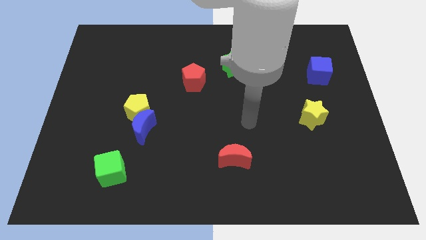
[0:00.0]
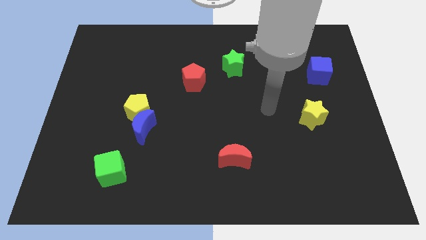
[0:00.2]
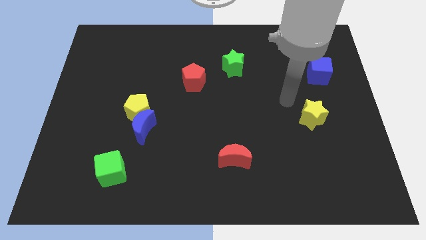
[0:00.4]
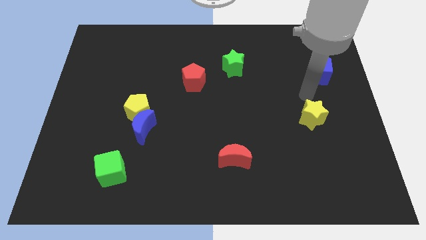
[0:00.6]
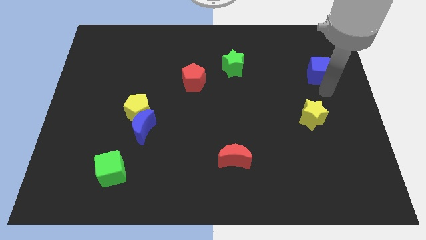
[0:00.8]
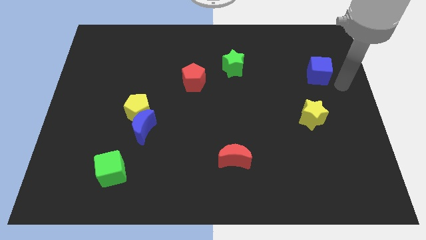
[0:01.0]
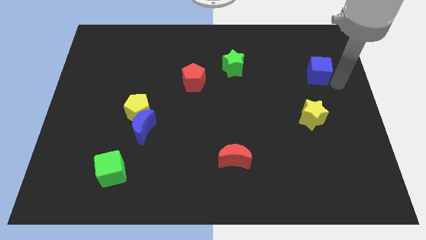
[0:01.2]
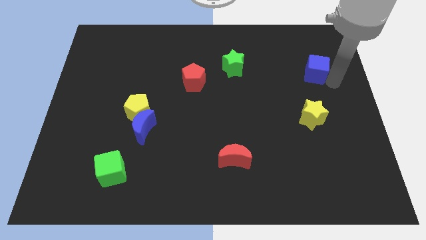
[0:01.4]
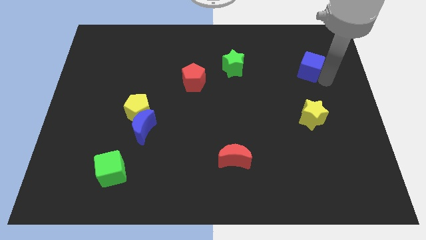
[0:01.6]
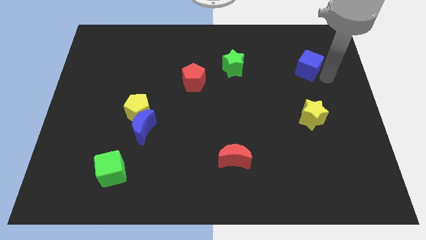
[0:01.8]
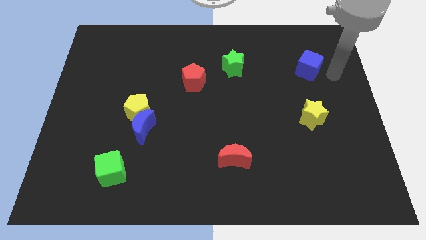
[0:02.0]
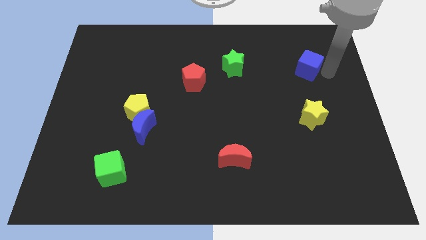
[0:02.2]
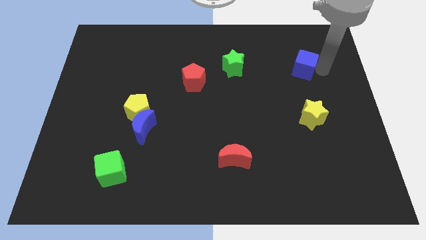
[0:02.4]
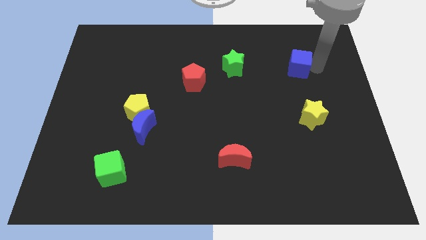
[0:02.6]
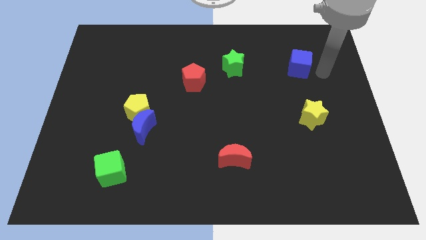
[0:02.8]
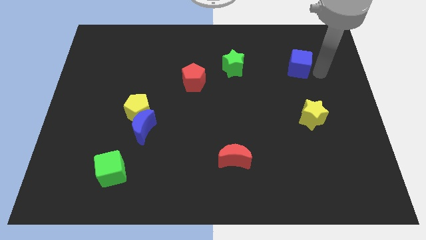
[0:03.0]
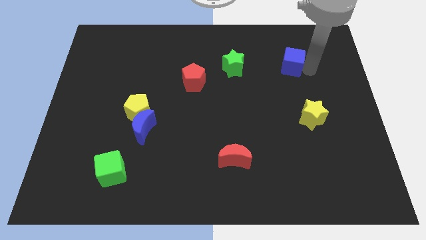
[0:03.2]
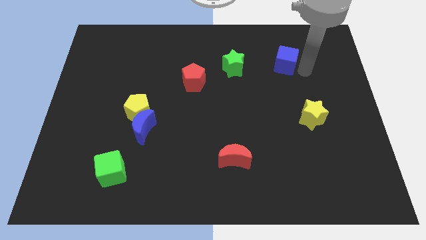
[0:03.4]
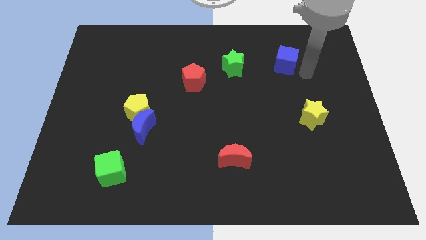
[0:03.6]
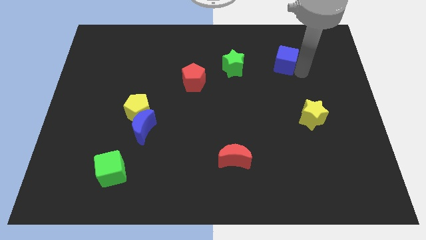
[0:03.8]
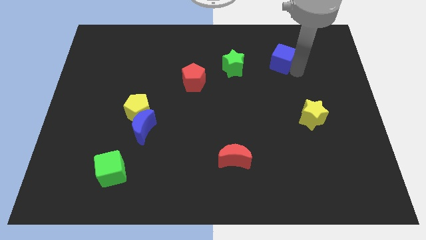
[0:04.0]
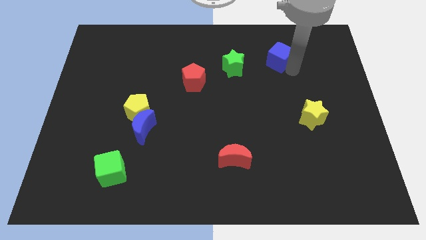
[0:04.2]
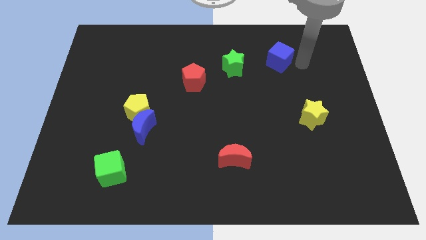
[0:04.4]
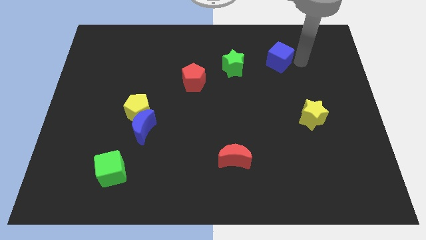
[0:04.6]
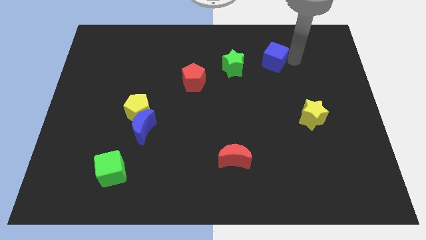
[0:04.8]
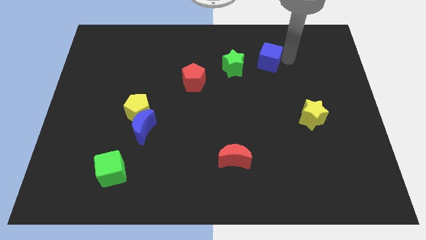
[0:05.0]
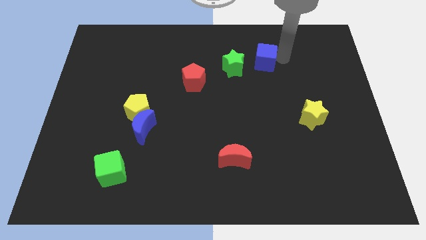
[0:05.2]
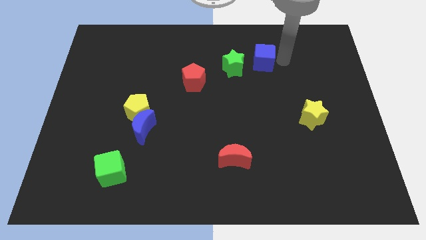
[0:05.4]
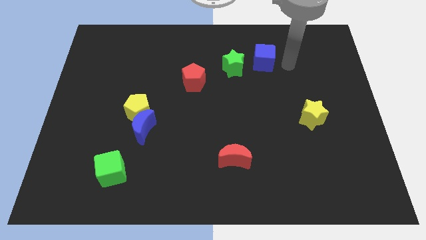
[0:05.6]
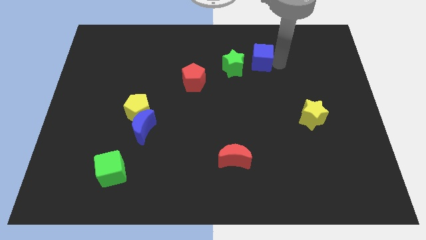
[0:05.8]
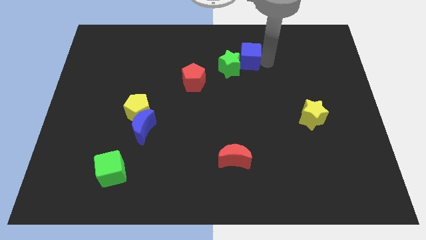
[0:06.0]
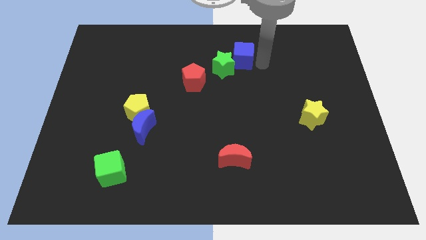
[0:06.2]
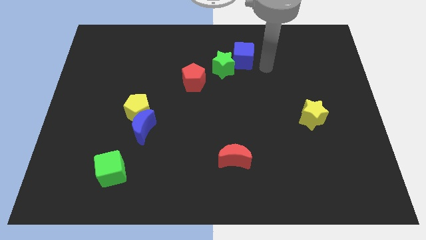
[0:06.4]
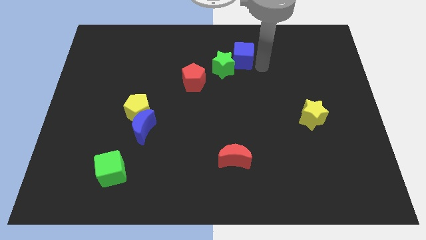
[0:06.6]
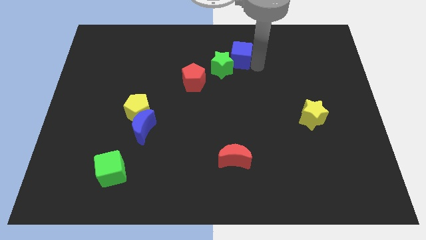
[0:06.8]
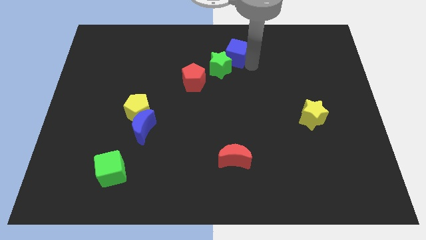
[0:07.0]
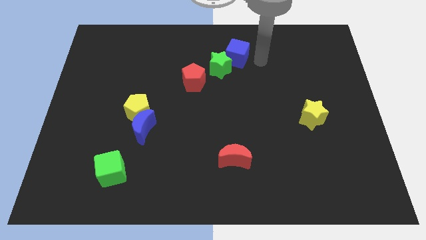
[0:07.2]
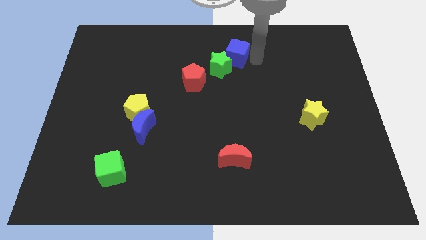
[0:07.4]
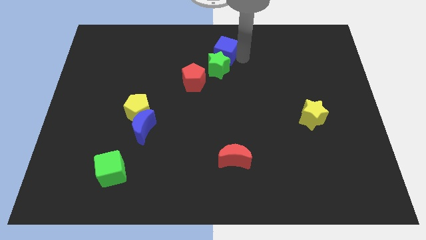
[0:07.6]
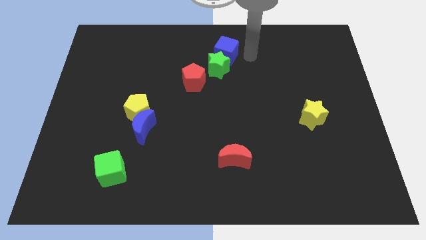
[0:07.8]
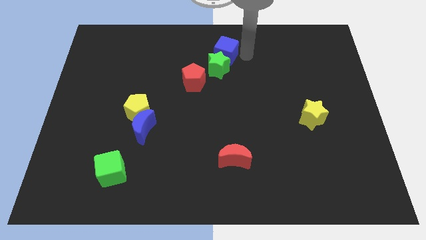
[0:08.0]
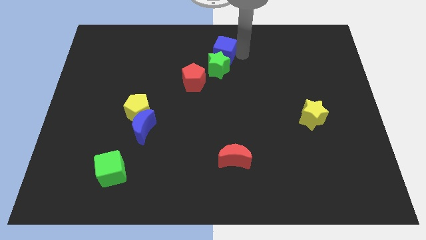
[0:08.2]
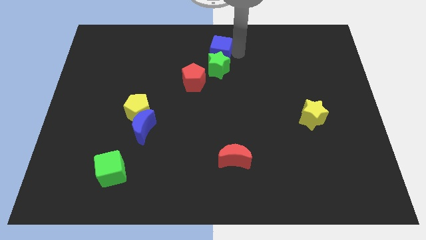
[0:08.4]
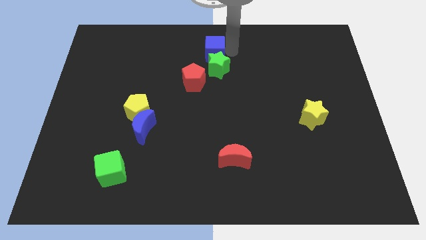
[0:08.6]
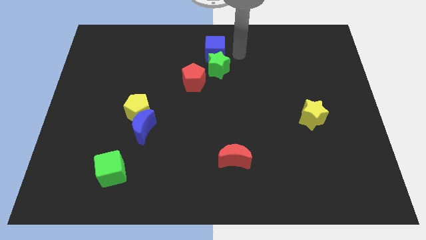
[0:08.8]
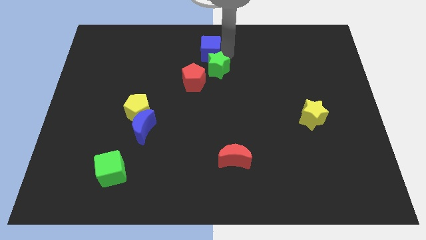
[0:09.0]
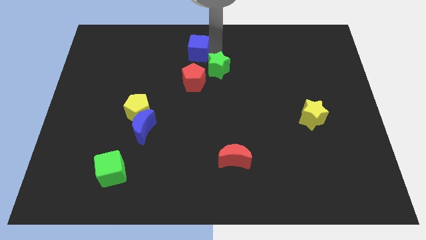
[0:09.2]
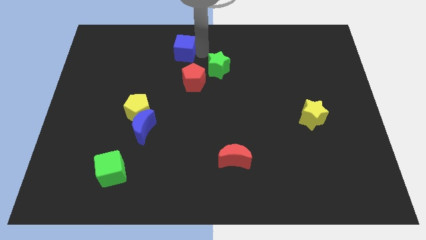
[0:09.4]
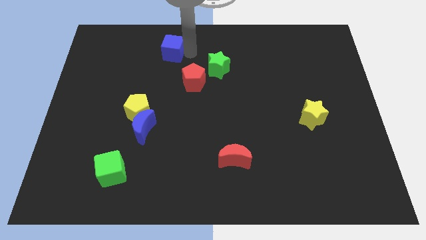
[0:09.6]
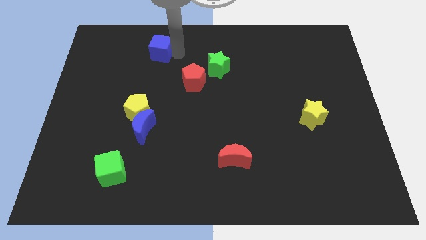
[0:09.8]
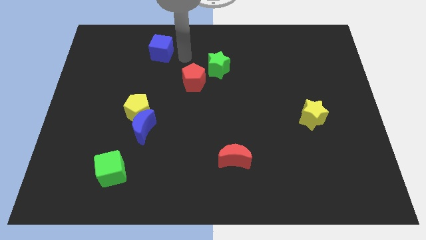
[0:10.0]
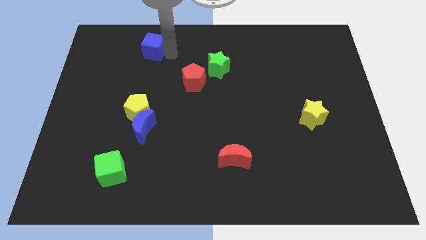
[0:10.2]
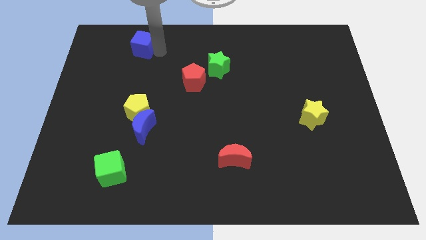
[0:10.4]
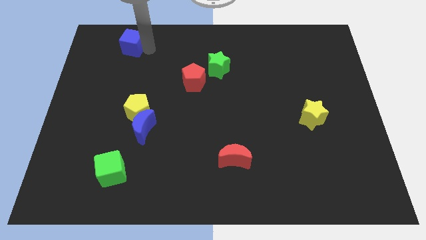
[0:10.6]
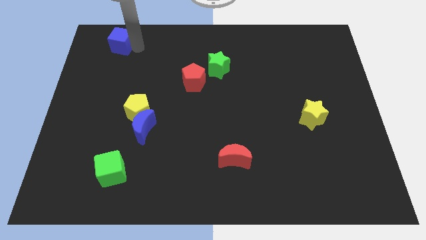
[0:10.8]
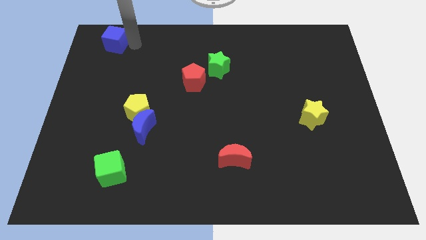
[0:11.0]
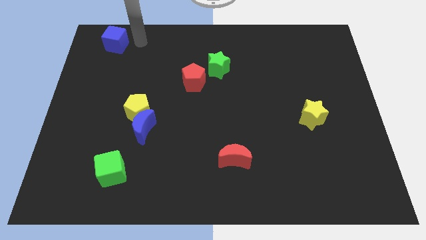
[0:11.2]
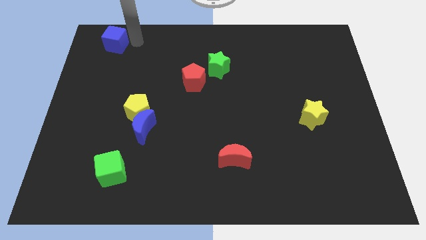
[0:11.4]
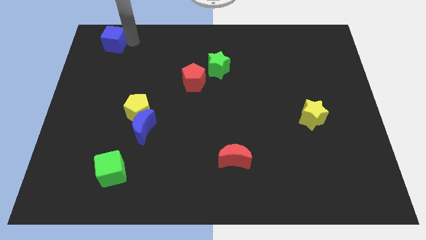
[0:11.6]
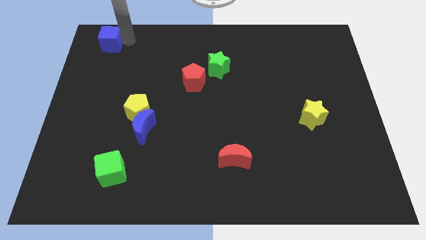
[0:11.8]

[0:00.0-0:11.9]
put the blue cube to the top left

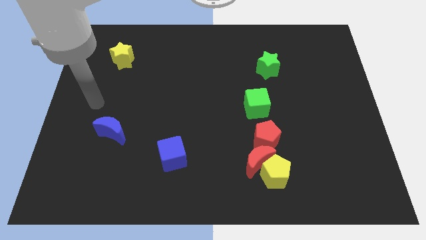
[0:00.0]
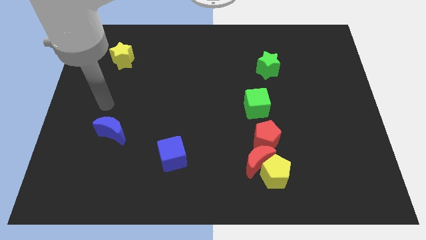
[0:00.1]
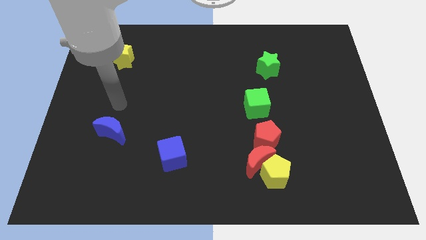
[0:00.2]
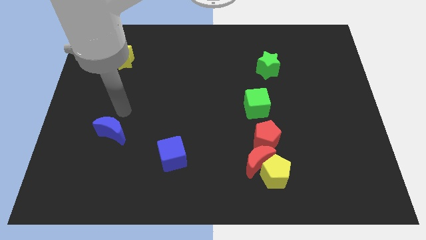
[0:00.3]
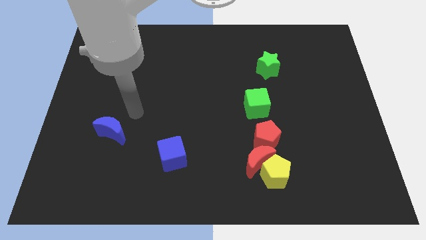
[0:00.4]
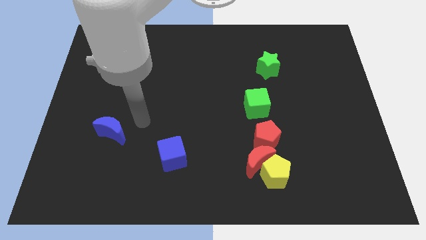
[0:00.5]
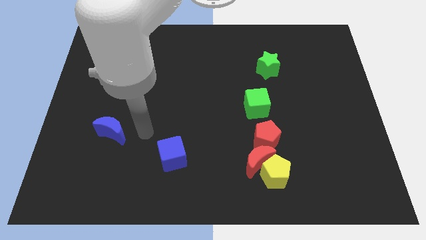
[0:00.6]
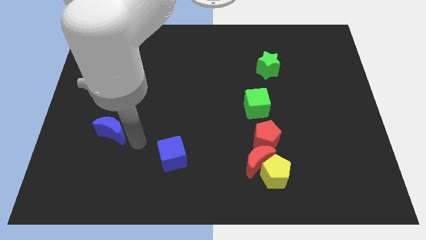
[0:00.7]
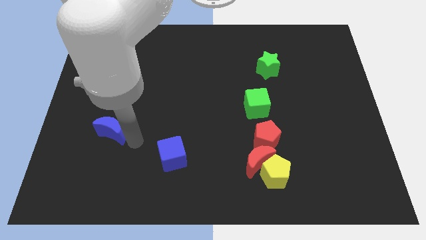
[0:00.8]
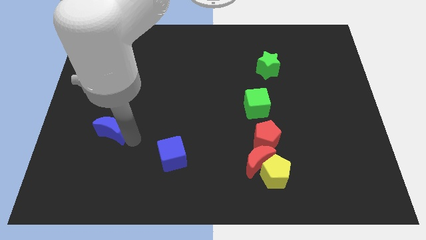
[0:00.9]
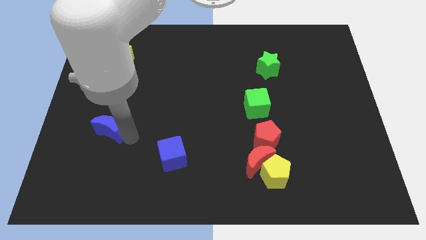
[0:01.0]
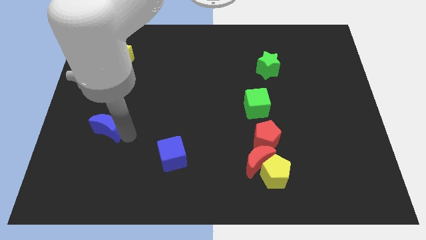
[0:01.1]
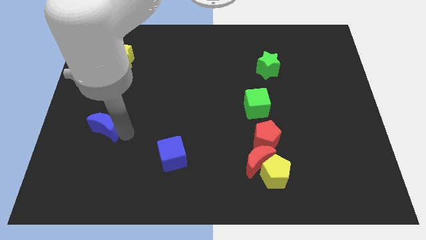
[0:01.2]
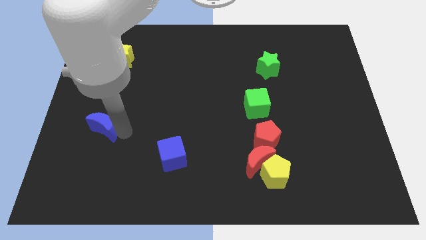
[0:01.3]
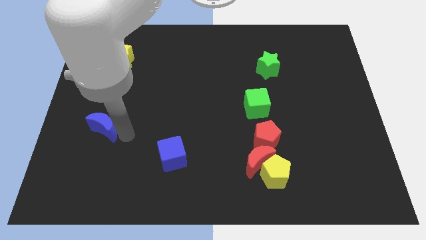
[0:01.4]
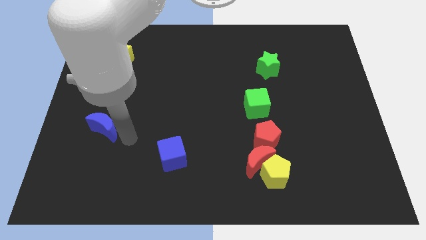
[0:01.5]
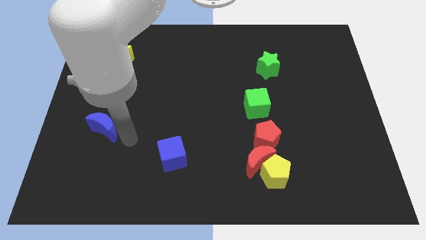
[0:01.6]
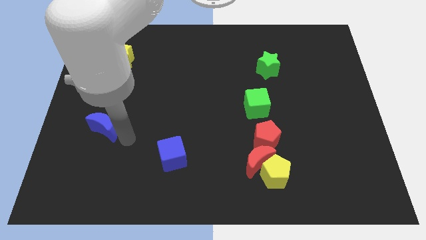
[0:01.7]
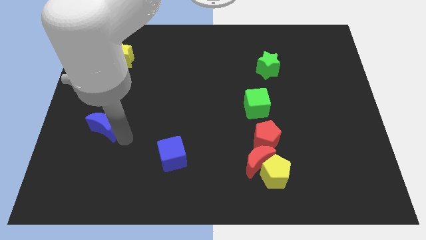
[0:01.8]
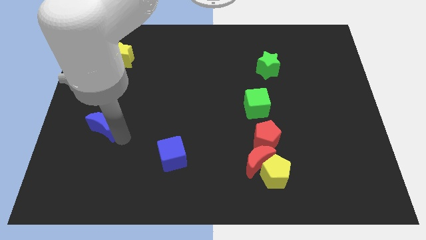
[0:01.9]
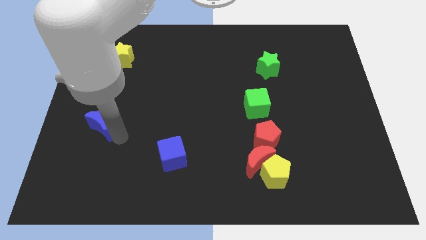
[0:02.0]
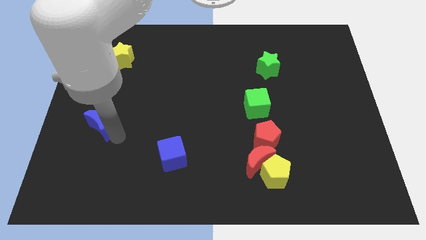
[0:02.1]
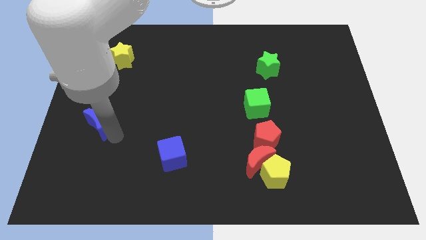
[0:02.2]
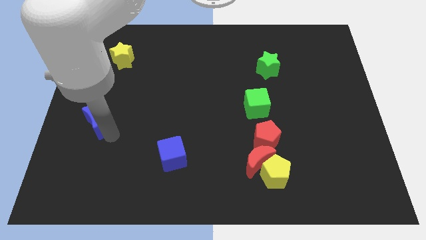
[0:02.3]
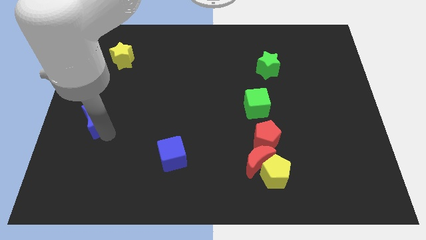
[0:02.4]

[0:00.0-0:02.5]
slide the blue moon to the left side of the board
